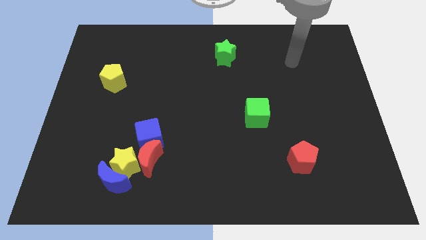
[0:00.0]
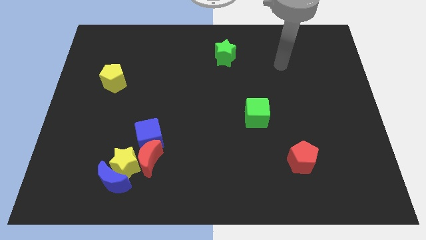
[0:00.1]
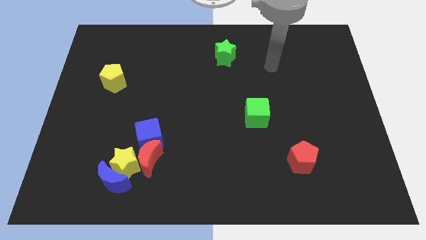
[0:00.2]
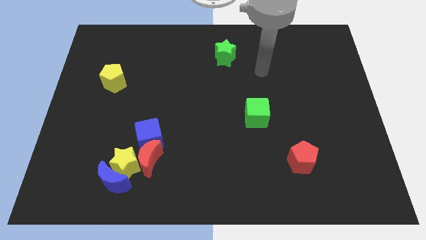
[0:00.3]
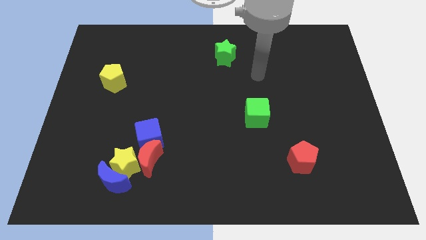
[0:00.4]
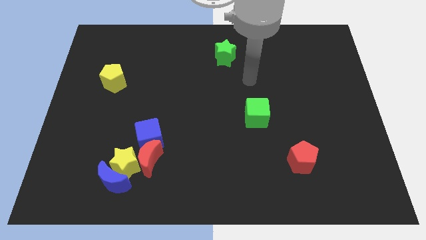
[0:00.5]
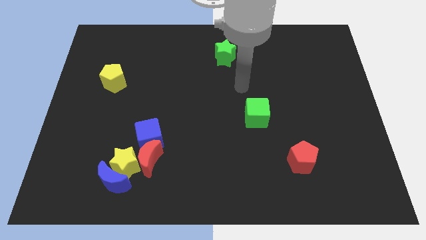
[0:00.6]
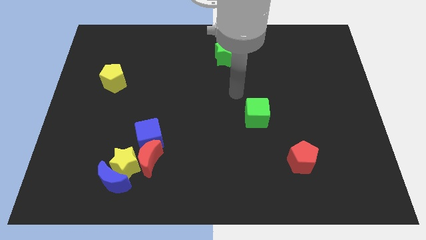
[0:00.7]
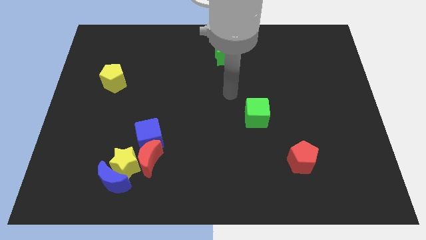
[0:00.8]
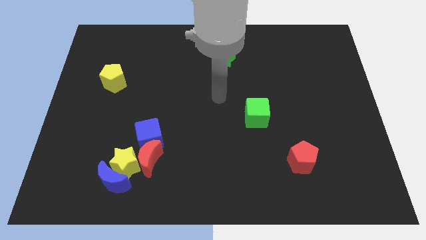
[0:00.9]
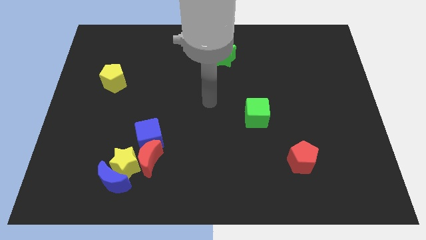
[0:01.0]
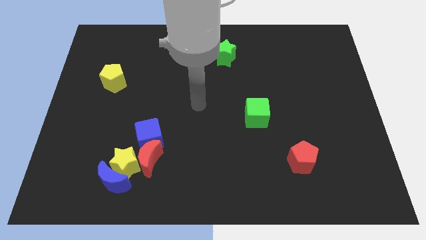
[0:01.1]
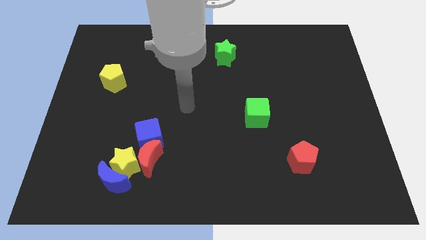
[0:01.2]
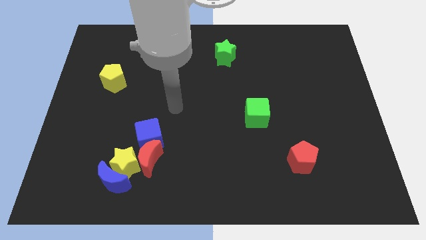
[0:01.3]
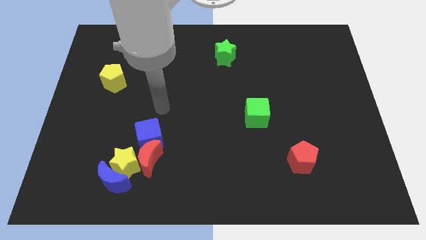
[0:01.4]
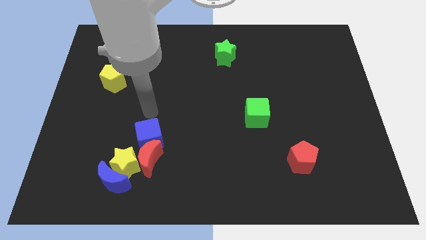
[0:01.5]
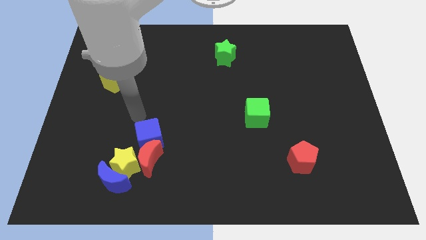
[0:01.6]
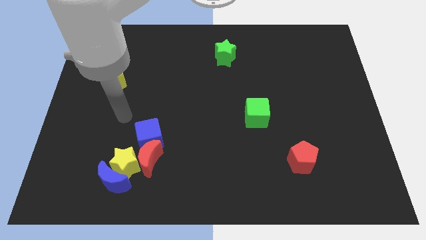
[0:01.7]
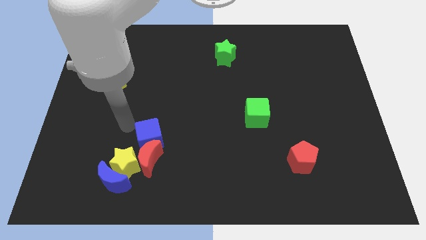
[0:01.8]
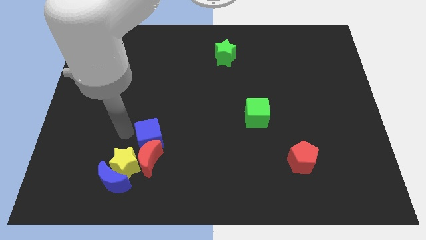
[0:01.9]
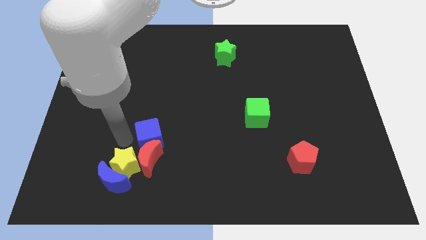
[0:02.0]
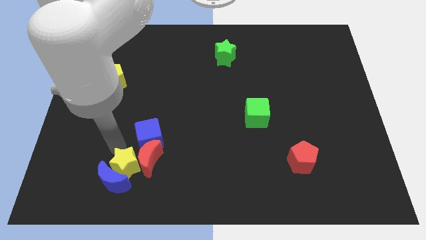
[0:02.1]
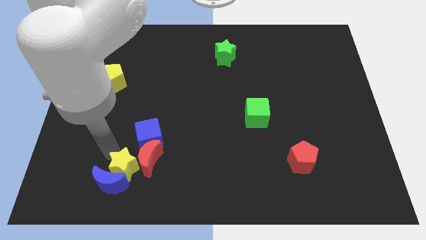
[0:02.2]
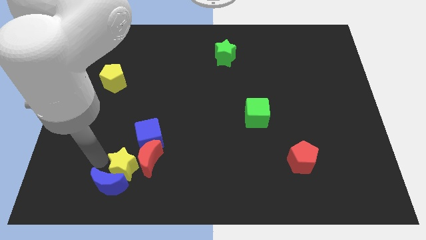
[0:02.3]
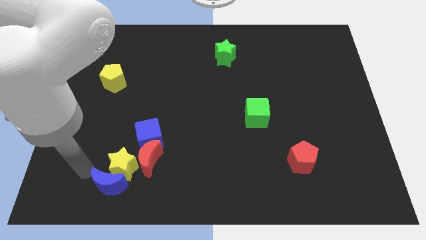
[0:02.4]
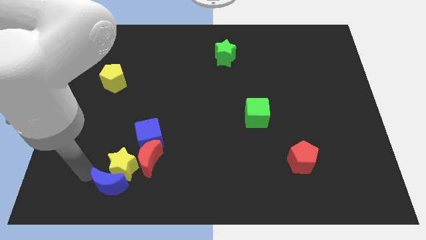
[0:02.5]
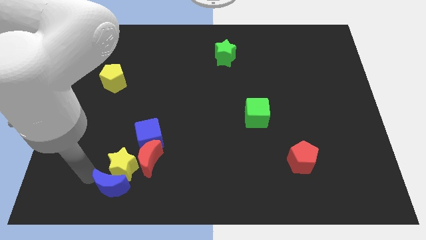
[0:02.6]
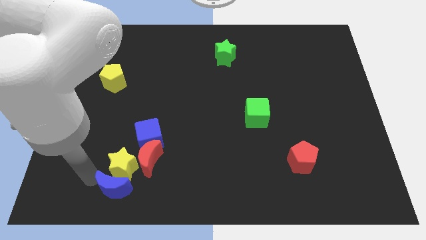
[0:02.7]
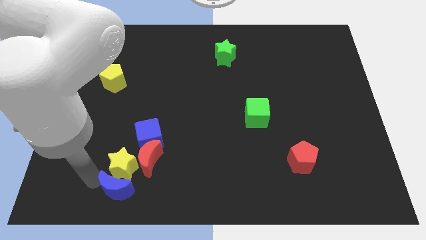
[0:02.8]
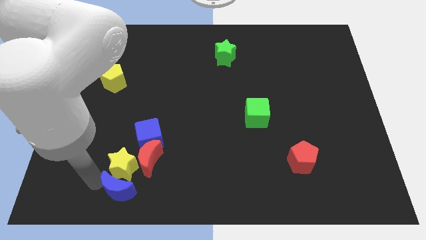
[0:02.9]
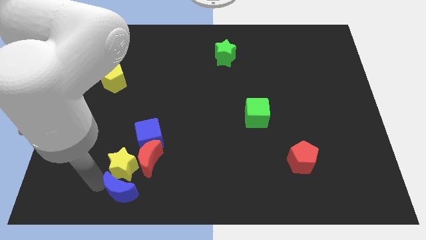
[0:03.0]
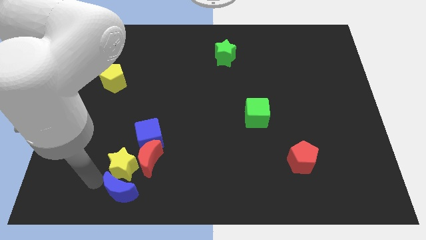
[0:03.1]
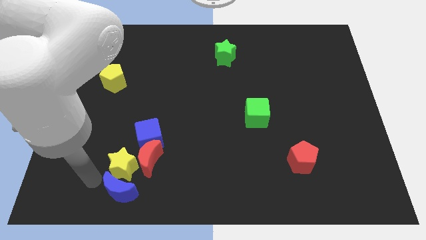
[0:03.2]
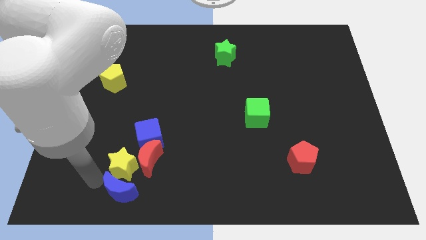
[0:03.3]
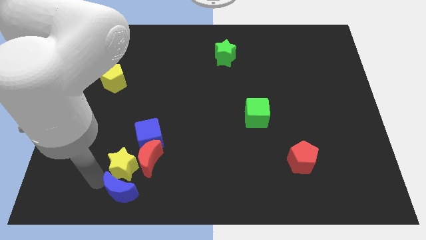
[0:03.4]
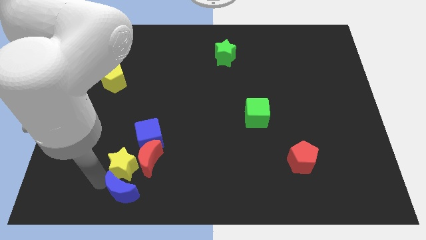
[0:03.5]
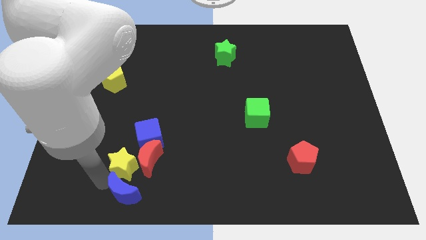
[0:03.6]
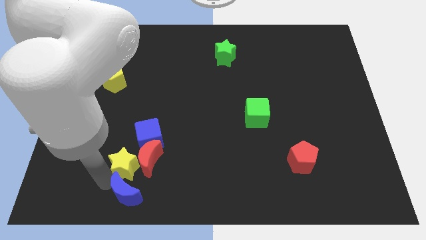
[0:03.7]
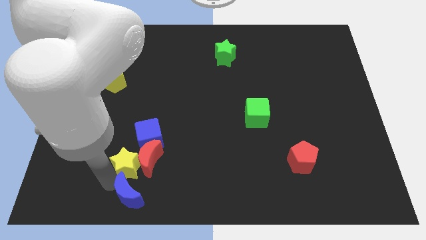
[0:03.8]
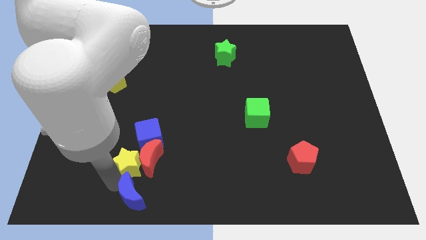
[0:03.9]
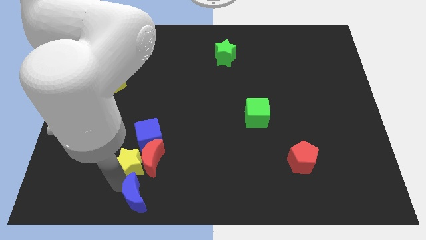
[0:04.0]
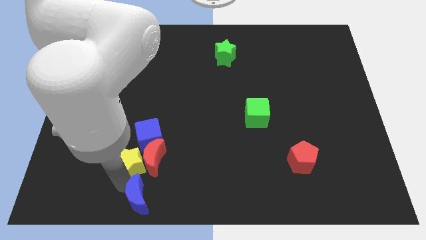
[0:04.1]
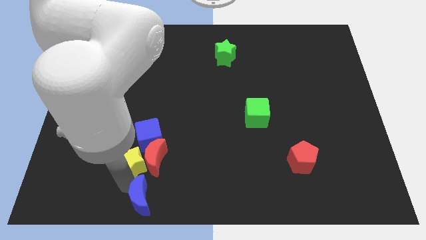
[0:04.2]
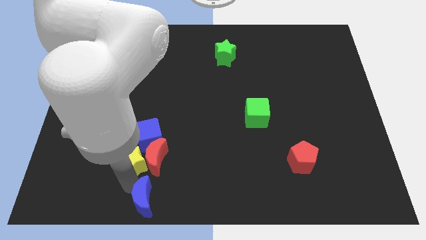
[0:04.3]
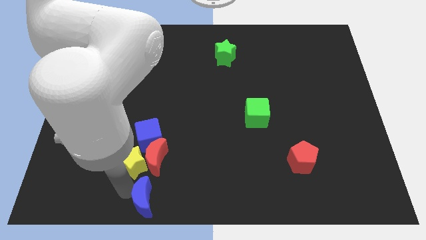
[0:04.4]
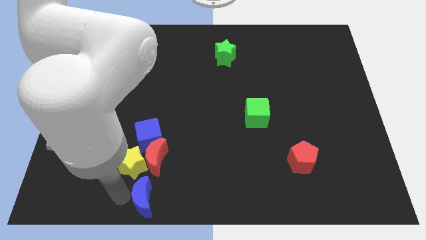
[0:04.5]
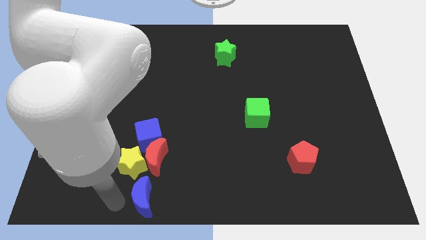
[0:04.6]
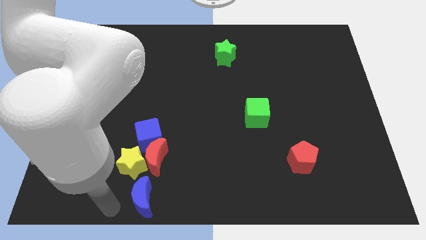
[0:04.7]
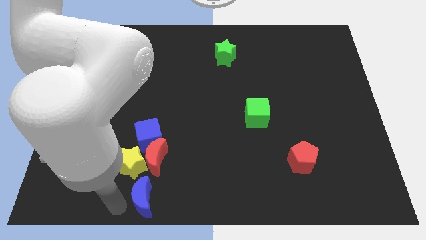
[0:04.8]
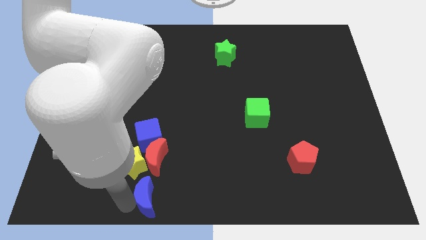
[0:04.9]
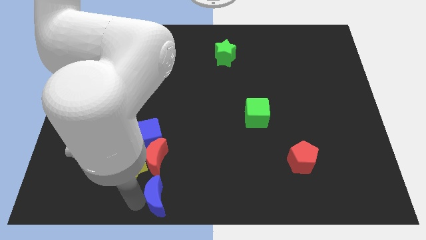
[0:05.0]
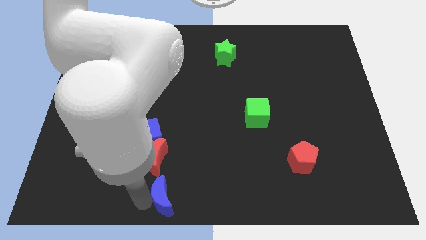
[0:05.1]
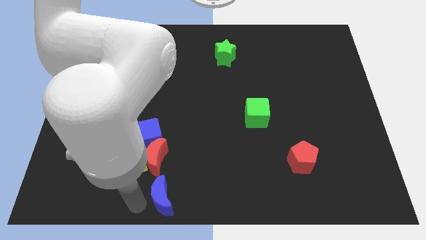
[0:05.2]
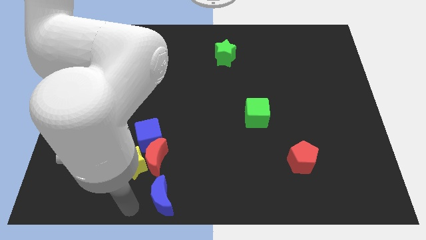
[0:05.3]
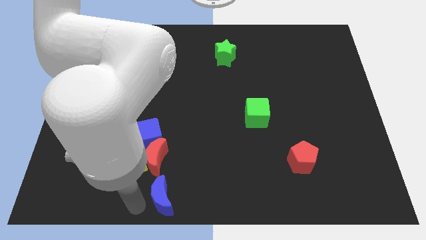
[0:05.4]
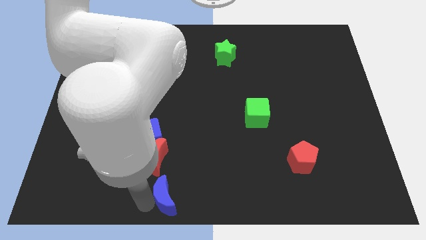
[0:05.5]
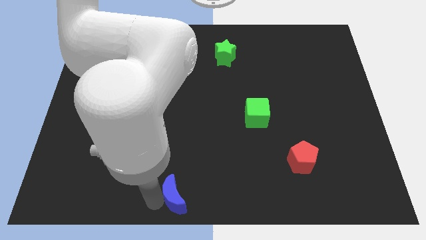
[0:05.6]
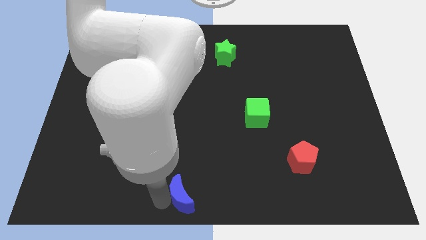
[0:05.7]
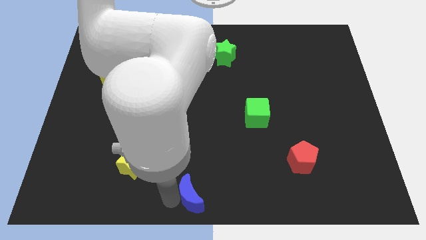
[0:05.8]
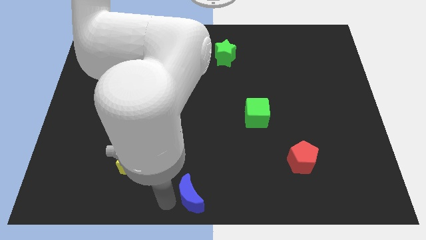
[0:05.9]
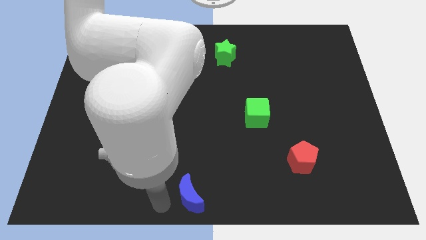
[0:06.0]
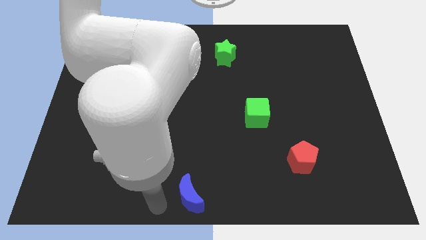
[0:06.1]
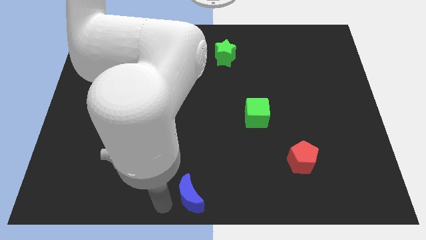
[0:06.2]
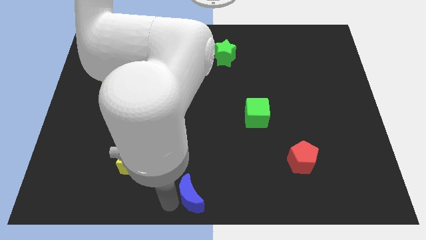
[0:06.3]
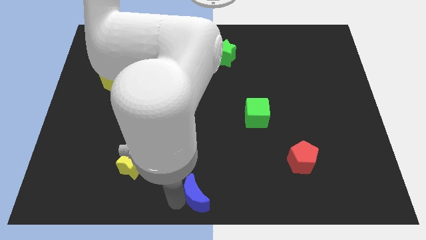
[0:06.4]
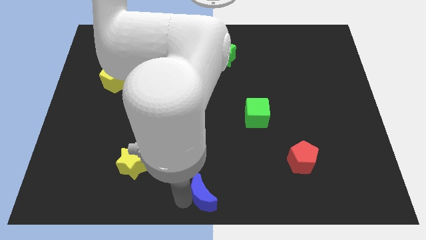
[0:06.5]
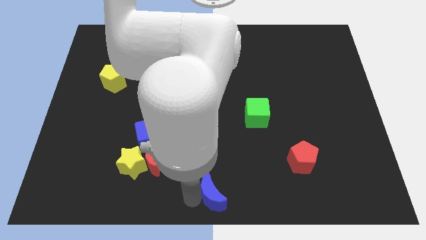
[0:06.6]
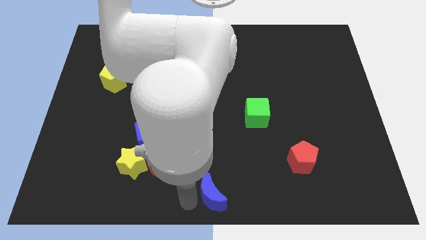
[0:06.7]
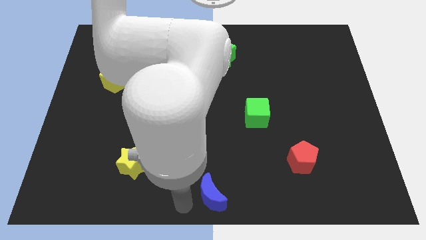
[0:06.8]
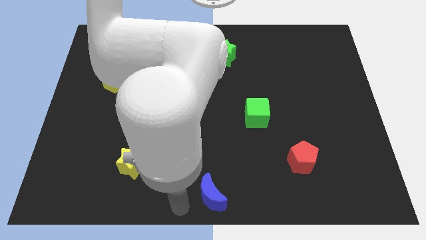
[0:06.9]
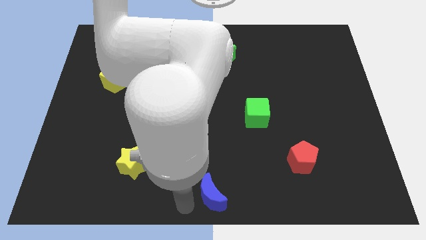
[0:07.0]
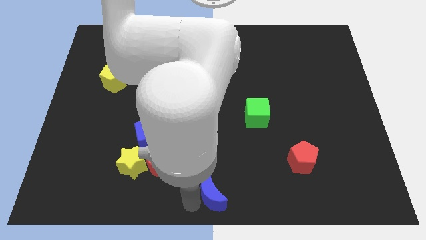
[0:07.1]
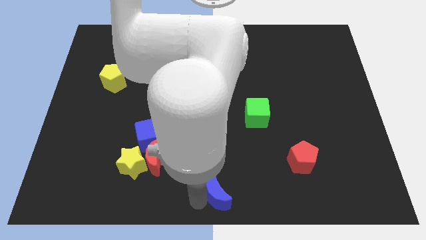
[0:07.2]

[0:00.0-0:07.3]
slide the blue moon to the right

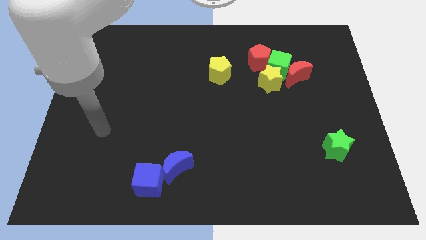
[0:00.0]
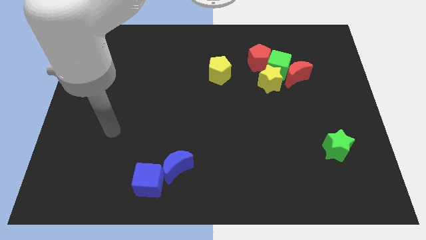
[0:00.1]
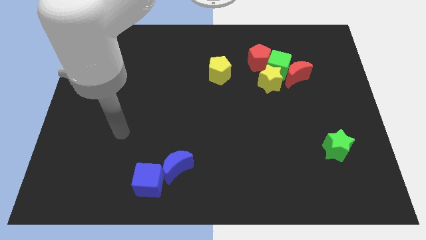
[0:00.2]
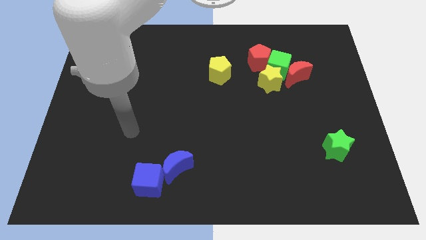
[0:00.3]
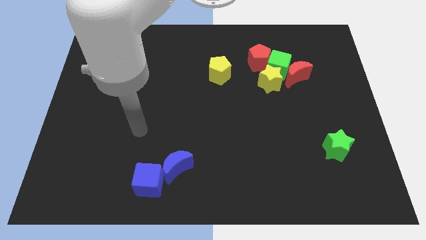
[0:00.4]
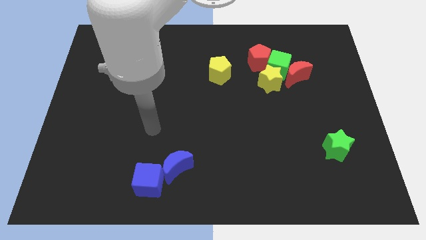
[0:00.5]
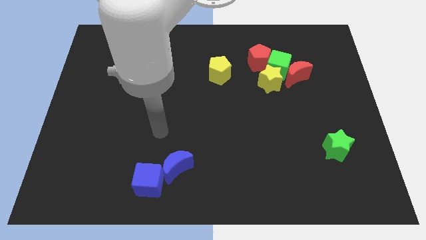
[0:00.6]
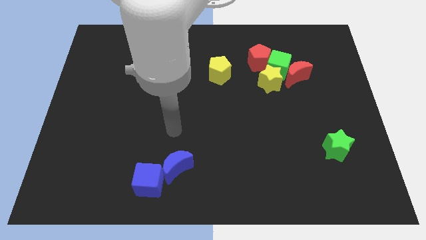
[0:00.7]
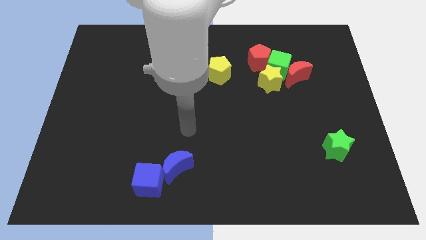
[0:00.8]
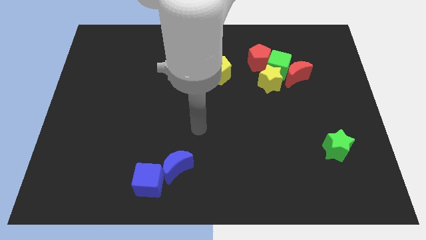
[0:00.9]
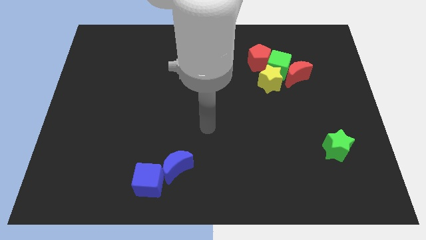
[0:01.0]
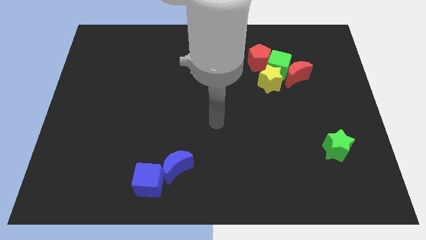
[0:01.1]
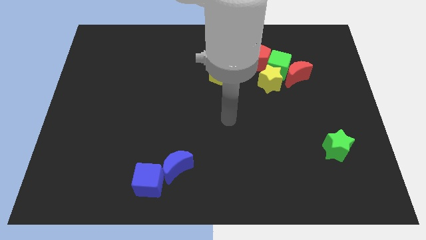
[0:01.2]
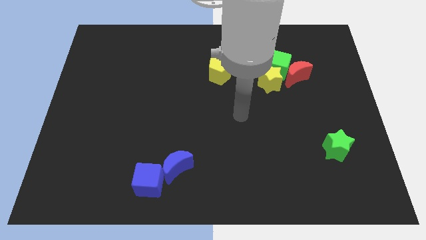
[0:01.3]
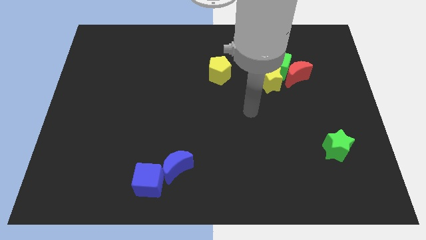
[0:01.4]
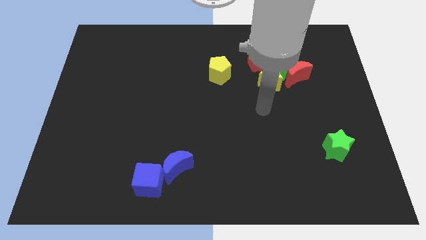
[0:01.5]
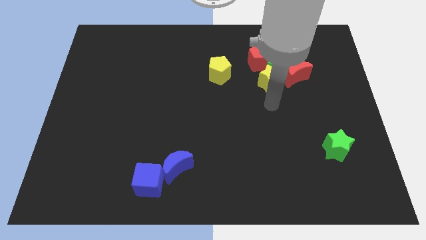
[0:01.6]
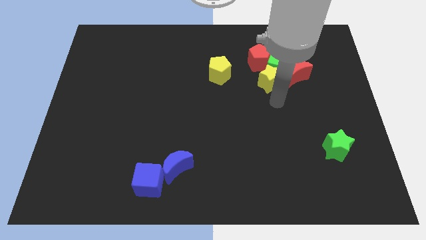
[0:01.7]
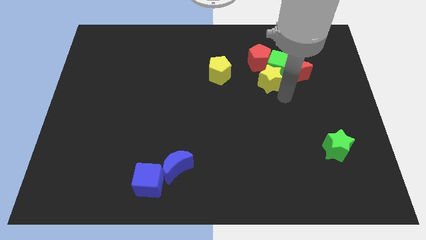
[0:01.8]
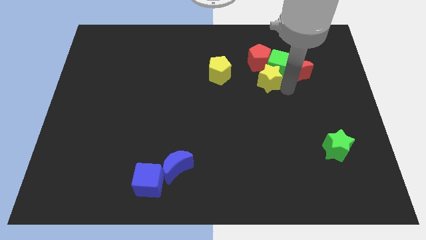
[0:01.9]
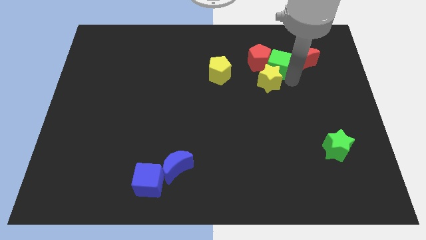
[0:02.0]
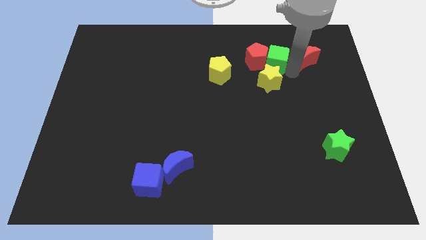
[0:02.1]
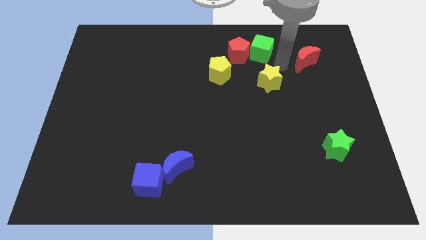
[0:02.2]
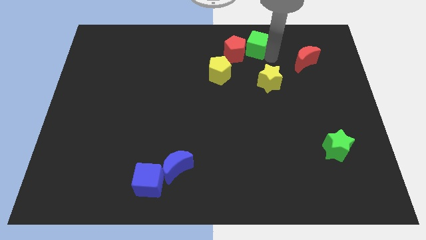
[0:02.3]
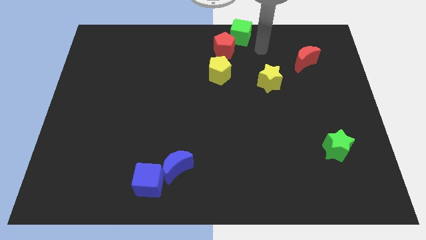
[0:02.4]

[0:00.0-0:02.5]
move the red pentagon to the left a bit
